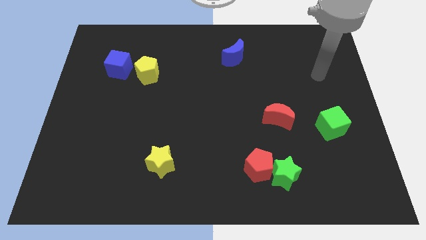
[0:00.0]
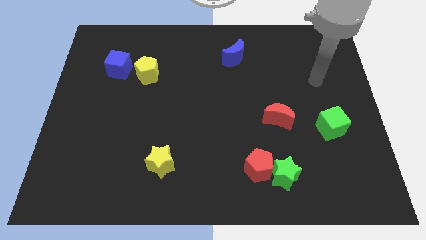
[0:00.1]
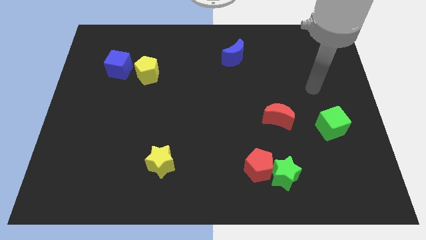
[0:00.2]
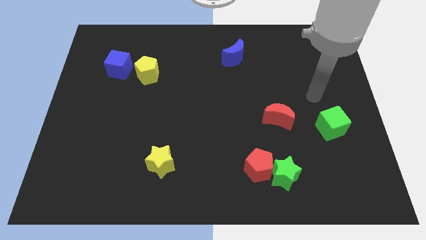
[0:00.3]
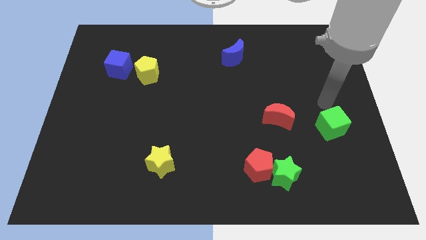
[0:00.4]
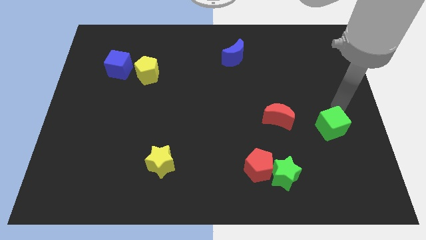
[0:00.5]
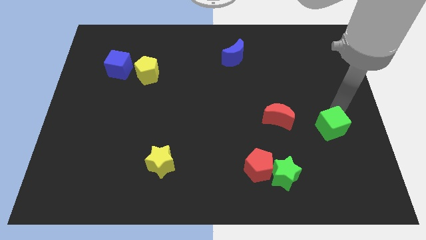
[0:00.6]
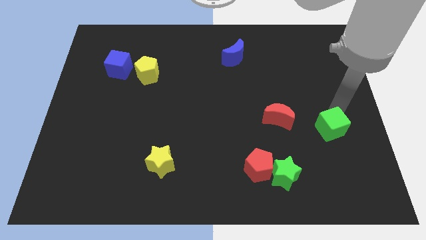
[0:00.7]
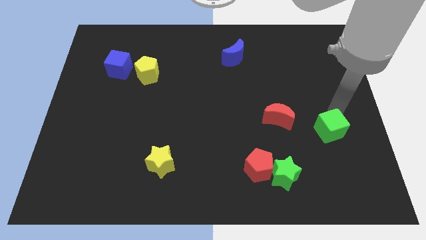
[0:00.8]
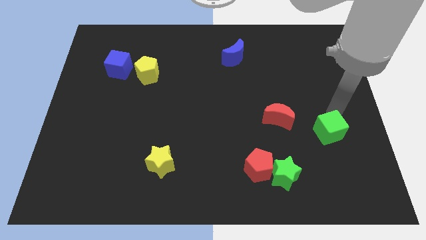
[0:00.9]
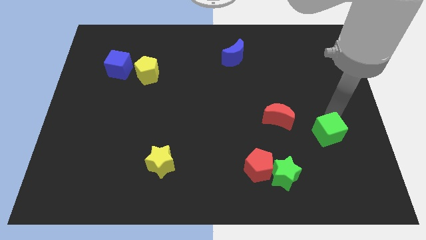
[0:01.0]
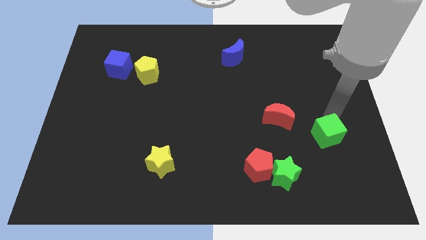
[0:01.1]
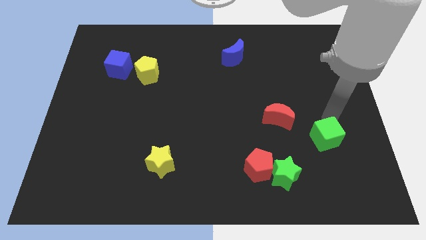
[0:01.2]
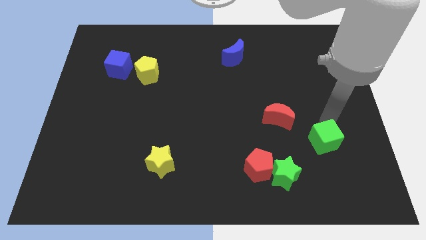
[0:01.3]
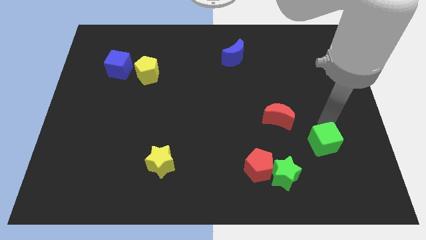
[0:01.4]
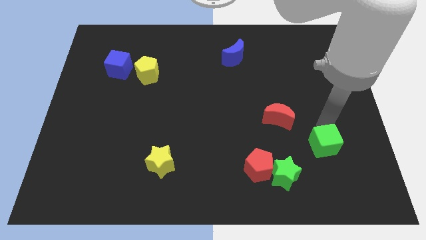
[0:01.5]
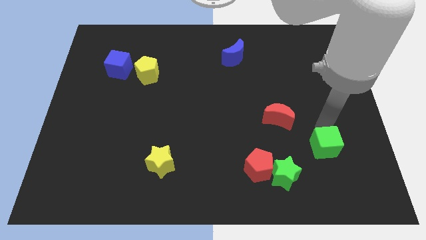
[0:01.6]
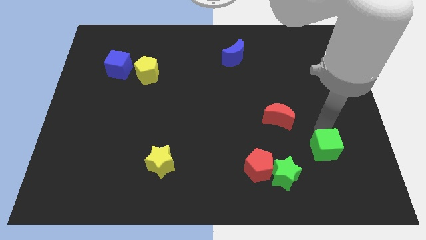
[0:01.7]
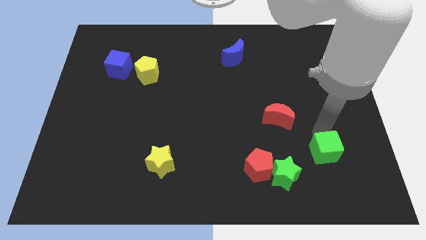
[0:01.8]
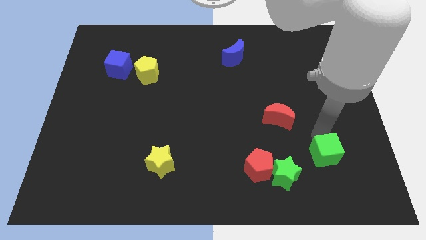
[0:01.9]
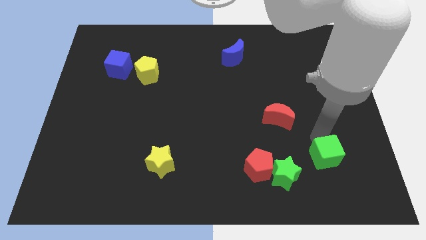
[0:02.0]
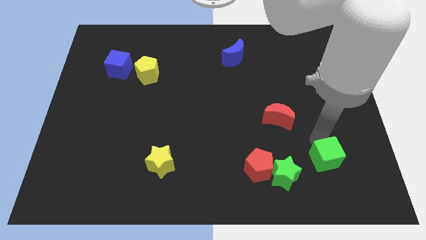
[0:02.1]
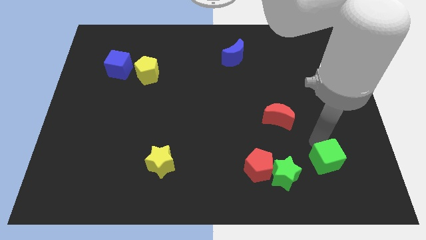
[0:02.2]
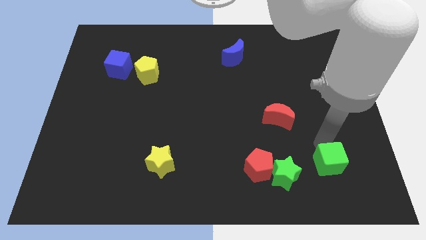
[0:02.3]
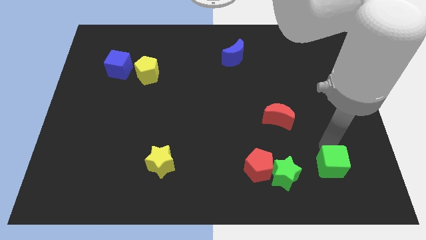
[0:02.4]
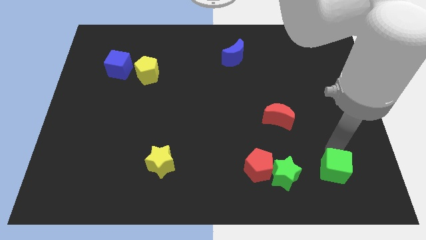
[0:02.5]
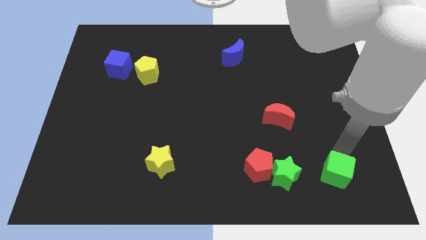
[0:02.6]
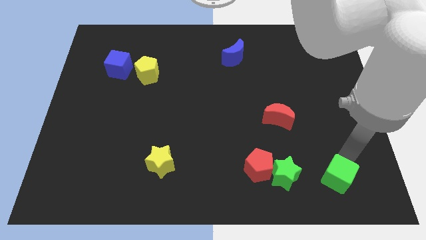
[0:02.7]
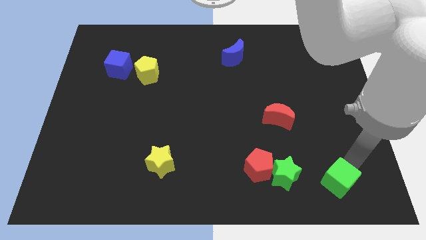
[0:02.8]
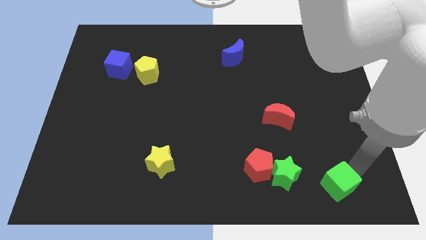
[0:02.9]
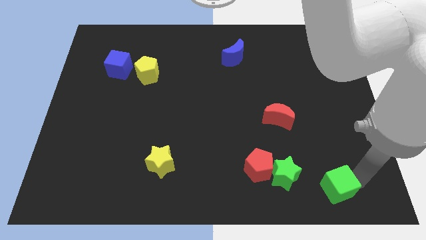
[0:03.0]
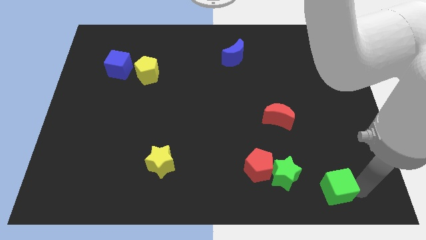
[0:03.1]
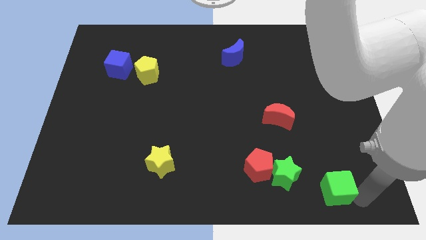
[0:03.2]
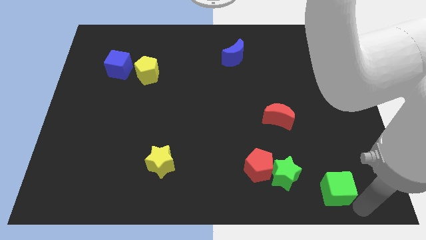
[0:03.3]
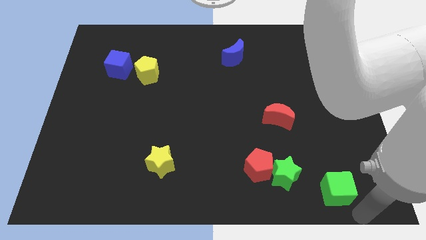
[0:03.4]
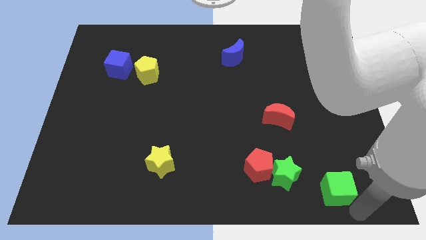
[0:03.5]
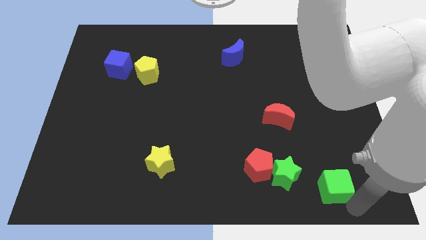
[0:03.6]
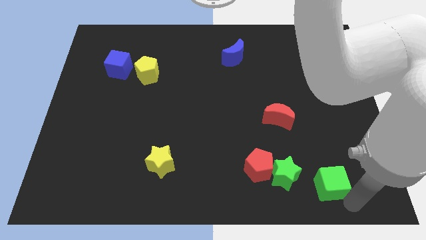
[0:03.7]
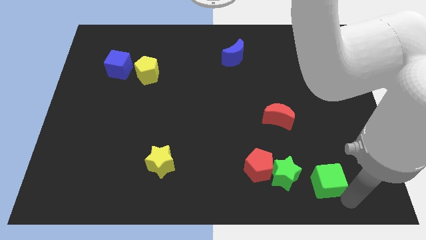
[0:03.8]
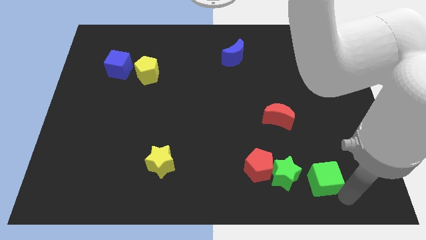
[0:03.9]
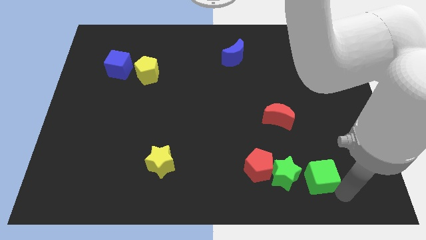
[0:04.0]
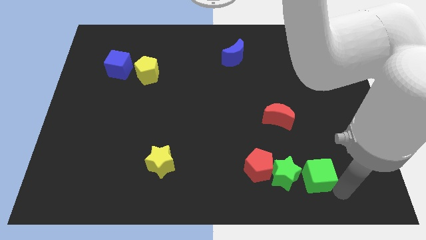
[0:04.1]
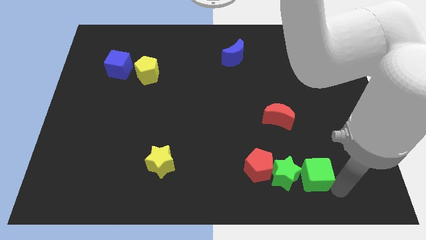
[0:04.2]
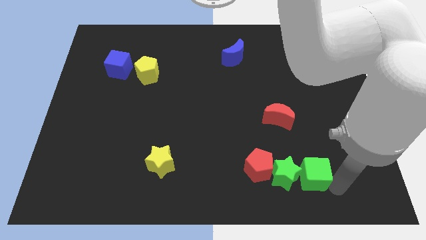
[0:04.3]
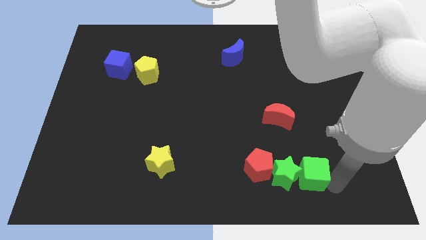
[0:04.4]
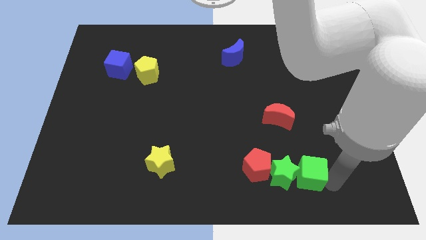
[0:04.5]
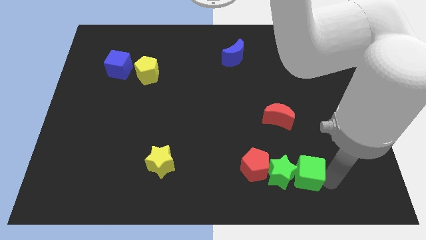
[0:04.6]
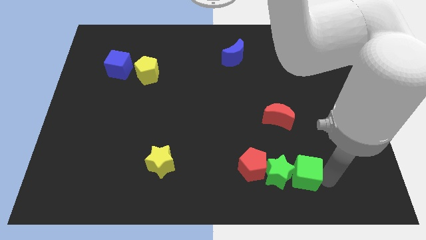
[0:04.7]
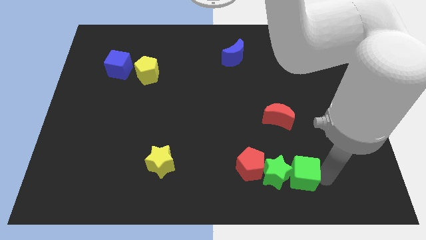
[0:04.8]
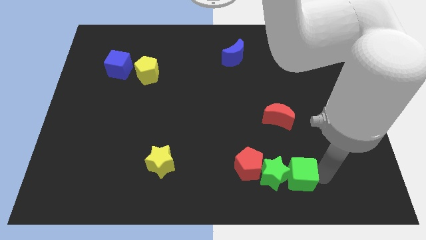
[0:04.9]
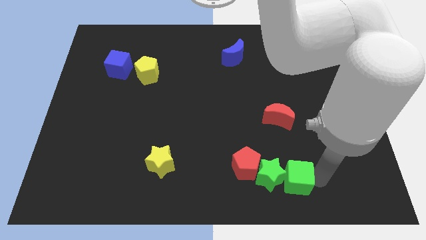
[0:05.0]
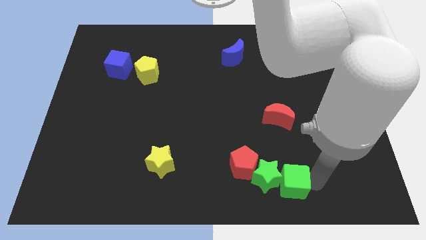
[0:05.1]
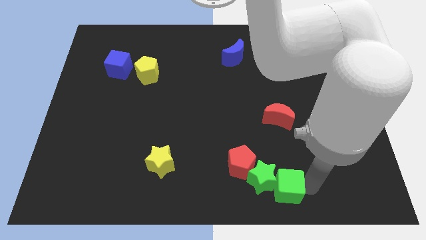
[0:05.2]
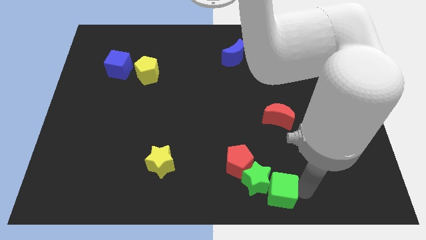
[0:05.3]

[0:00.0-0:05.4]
slide the green cube to the bottom side
